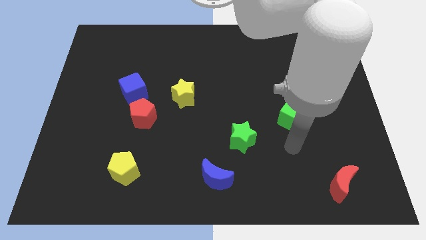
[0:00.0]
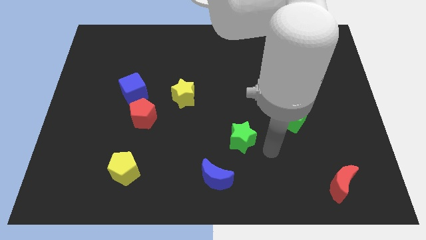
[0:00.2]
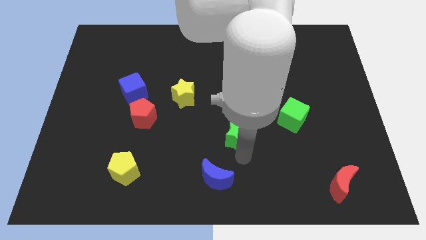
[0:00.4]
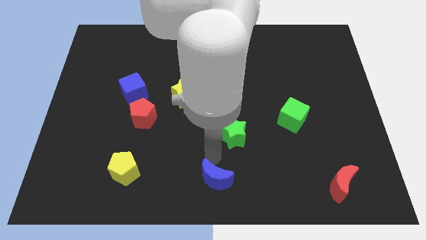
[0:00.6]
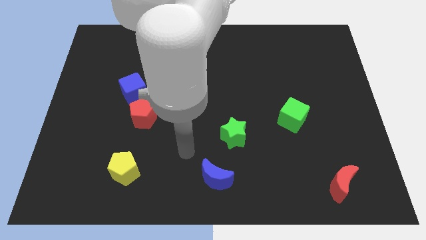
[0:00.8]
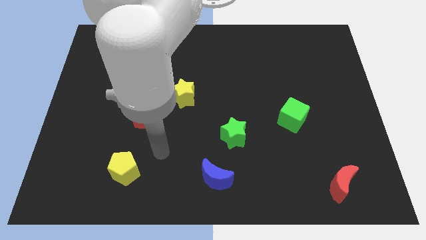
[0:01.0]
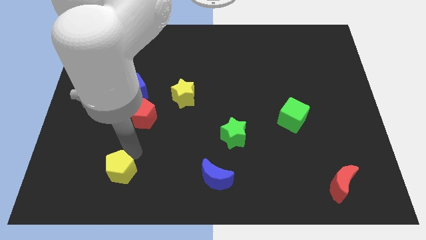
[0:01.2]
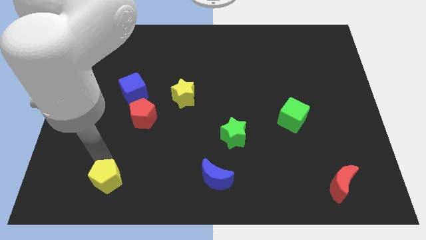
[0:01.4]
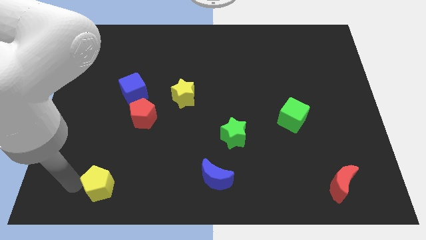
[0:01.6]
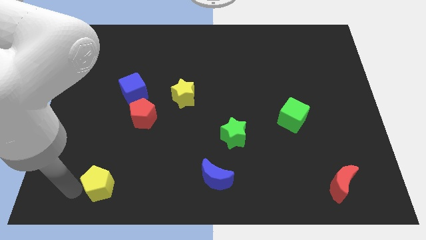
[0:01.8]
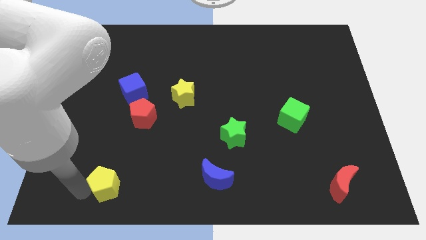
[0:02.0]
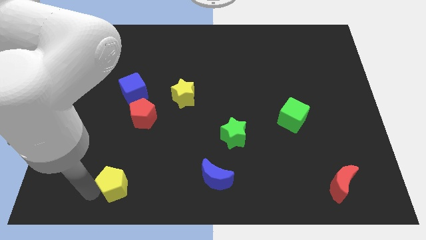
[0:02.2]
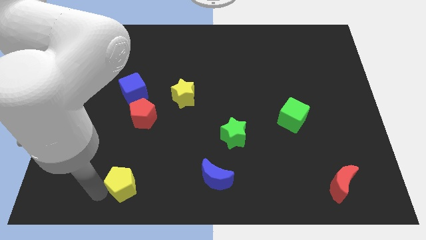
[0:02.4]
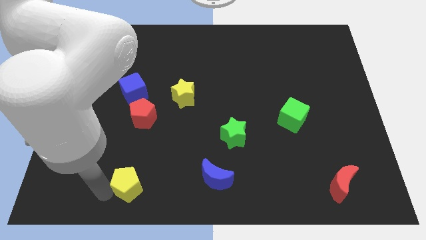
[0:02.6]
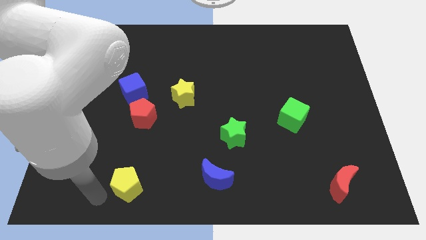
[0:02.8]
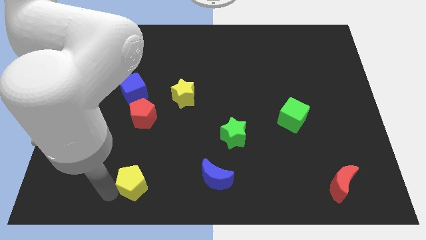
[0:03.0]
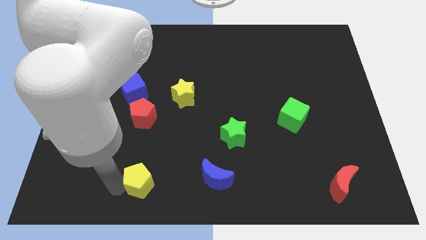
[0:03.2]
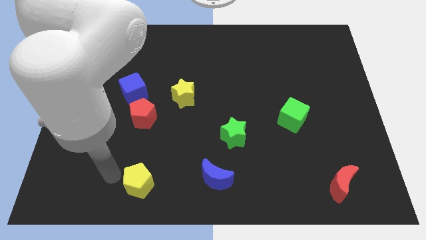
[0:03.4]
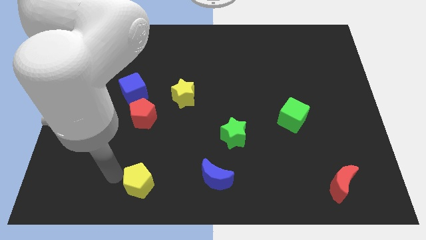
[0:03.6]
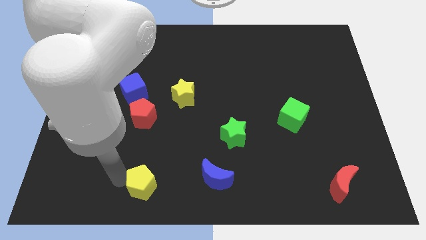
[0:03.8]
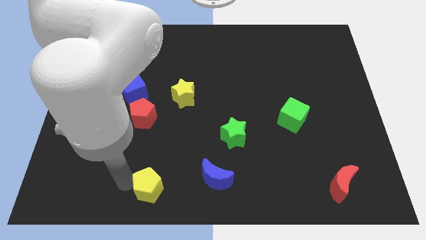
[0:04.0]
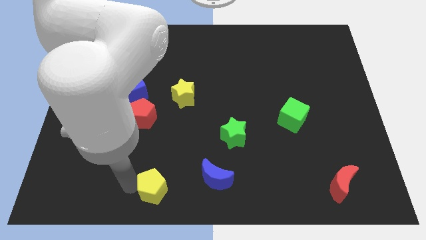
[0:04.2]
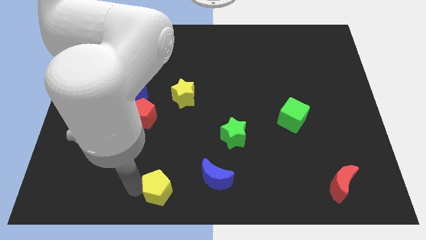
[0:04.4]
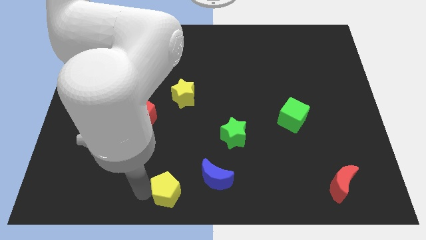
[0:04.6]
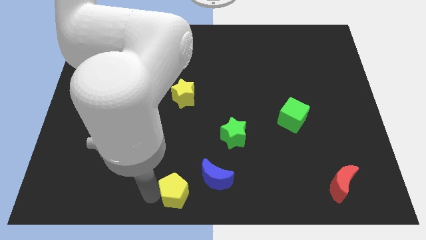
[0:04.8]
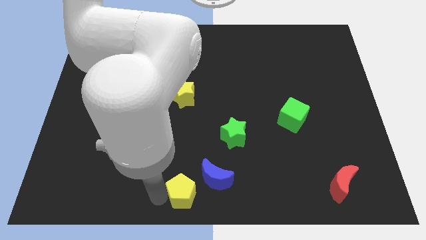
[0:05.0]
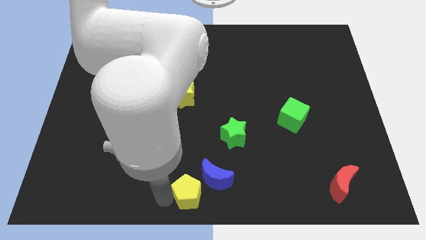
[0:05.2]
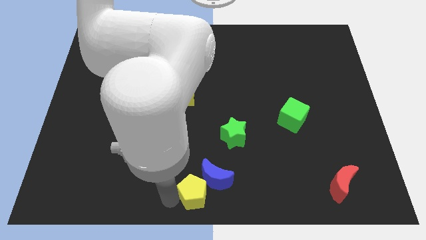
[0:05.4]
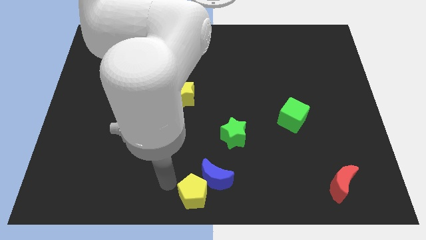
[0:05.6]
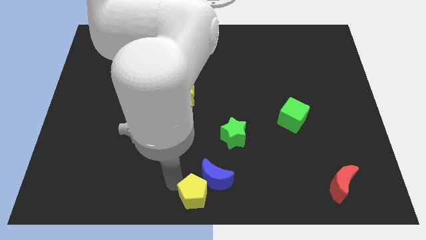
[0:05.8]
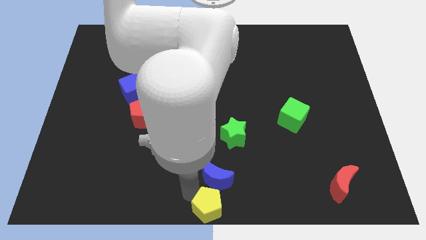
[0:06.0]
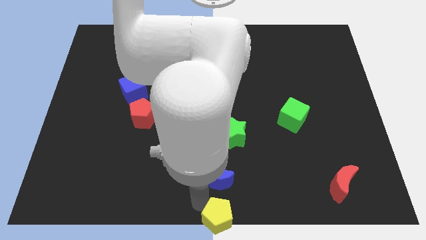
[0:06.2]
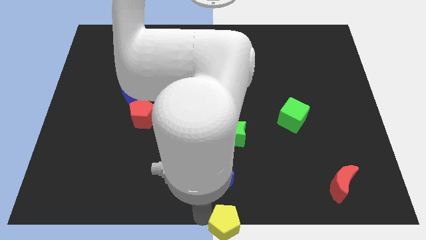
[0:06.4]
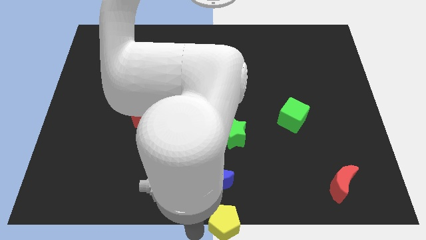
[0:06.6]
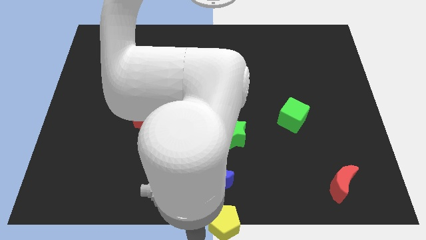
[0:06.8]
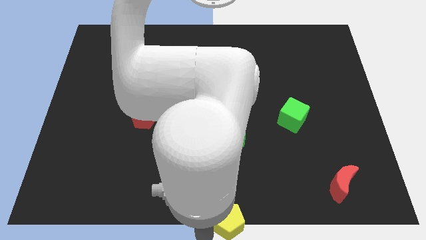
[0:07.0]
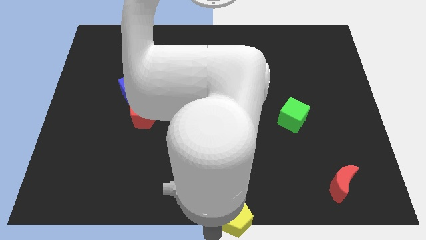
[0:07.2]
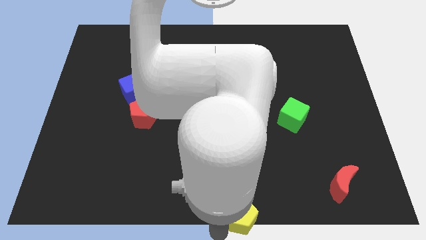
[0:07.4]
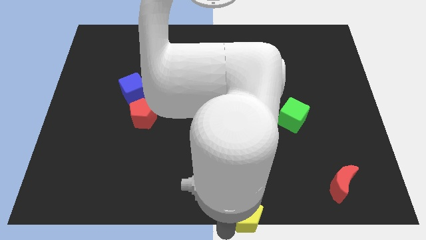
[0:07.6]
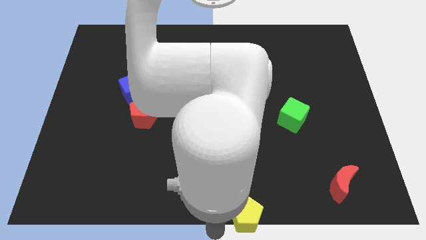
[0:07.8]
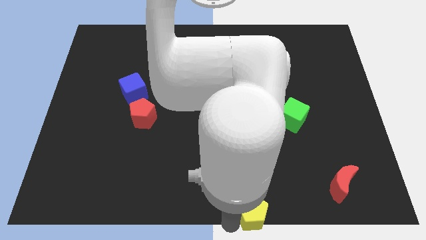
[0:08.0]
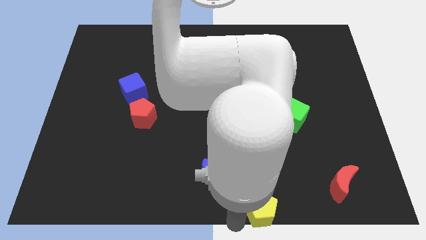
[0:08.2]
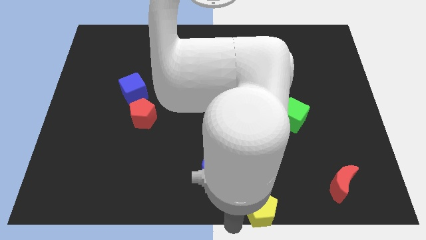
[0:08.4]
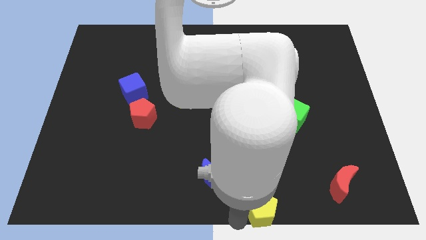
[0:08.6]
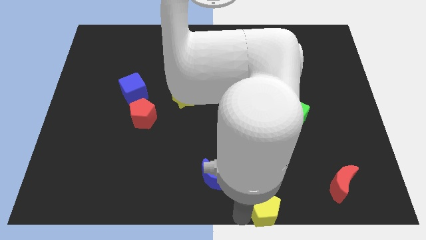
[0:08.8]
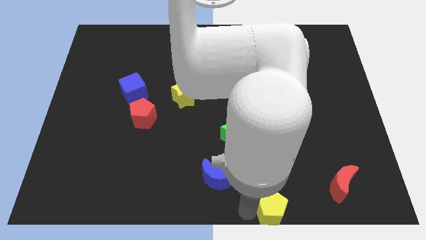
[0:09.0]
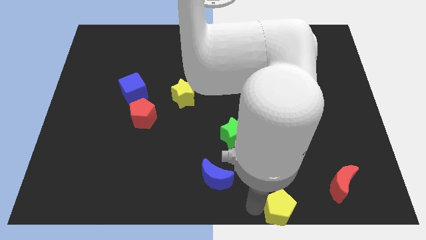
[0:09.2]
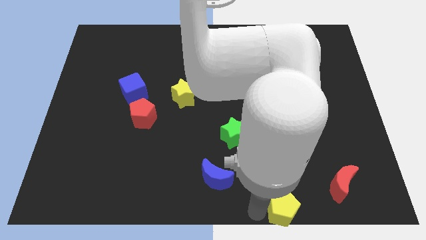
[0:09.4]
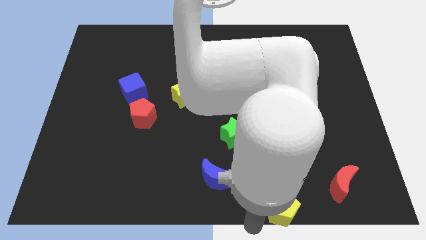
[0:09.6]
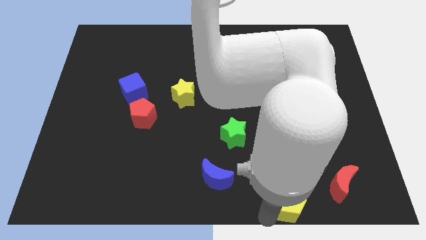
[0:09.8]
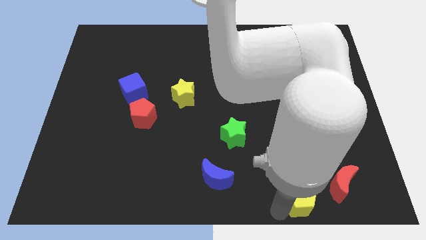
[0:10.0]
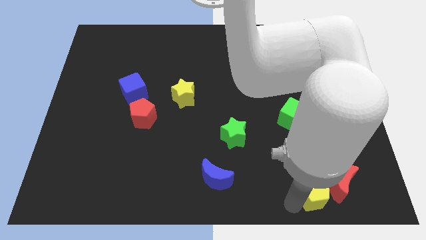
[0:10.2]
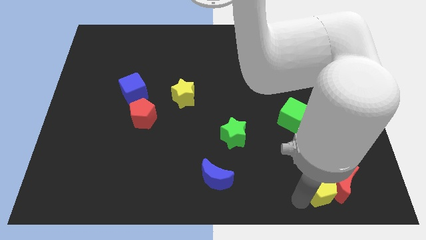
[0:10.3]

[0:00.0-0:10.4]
push the yellow pentagon close to the red moon

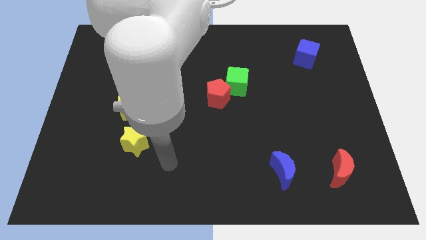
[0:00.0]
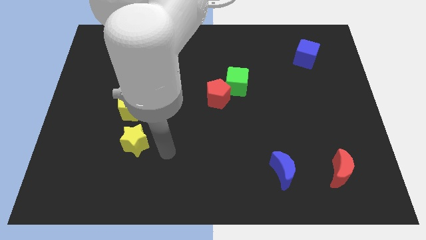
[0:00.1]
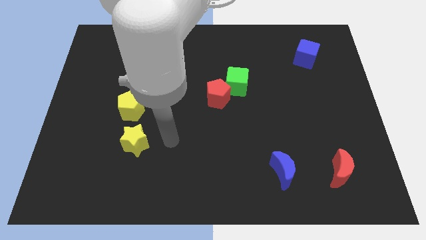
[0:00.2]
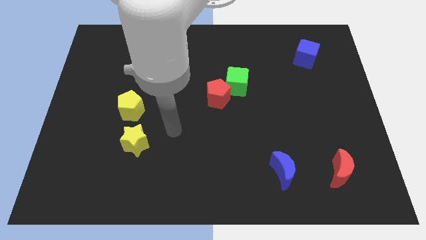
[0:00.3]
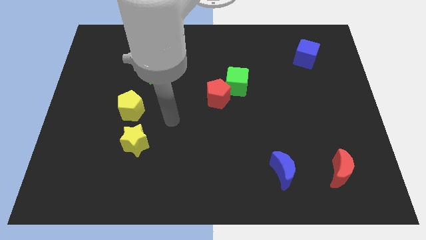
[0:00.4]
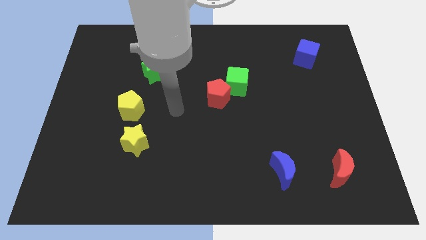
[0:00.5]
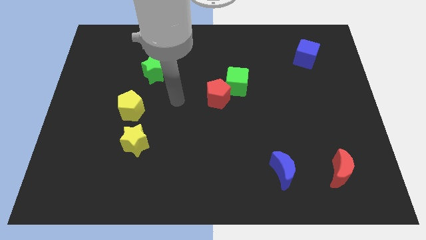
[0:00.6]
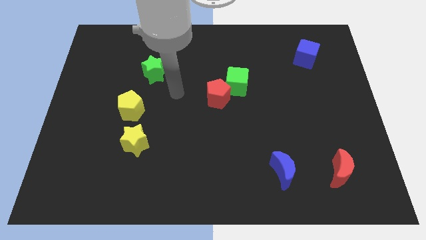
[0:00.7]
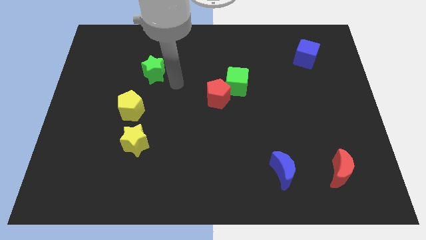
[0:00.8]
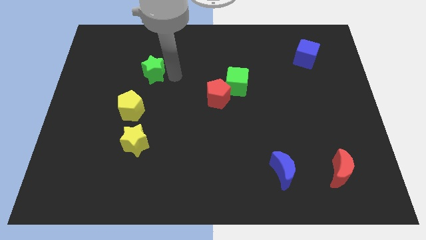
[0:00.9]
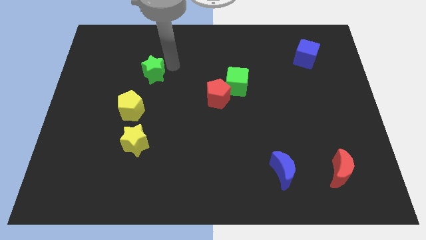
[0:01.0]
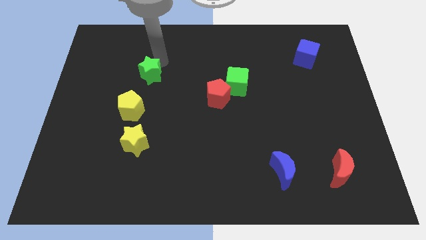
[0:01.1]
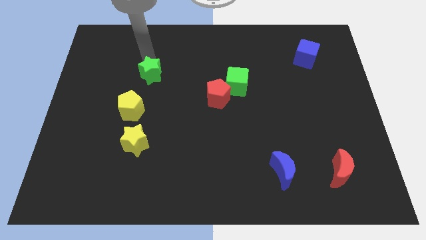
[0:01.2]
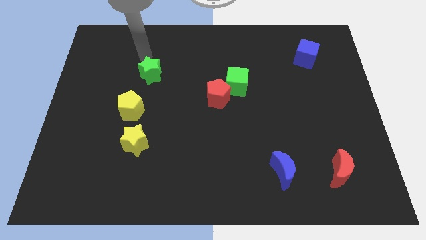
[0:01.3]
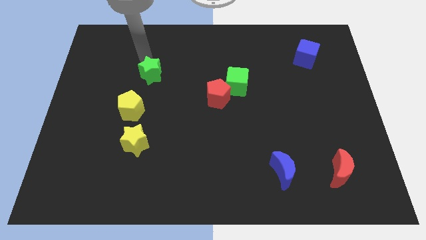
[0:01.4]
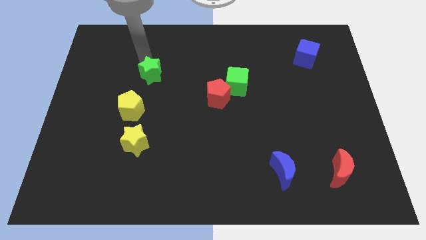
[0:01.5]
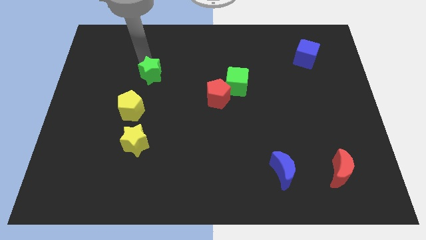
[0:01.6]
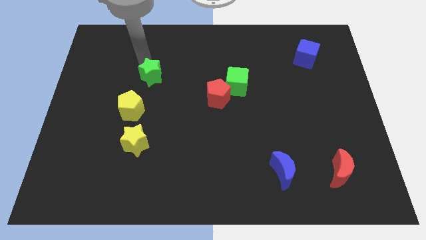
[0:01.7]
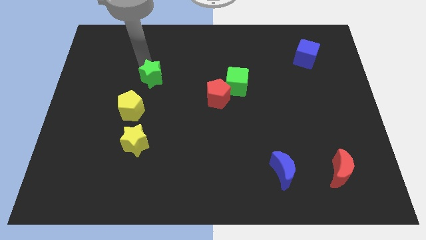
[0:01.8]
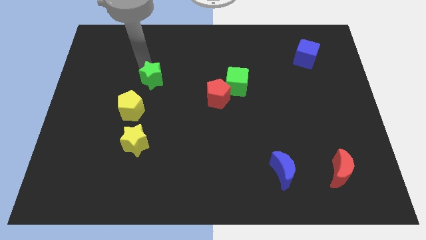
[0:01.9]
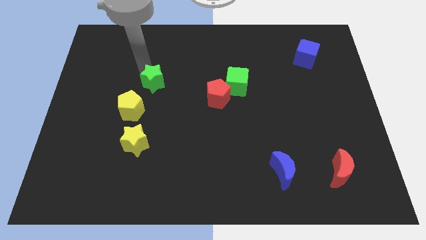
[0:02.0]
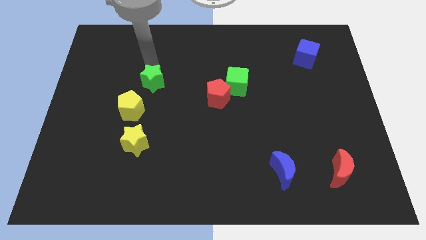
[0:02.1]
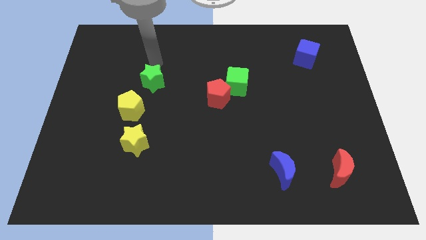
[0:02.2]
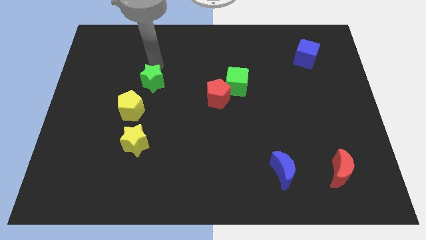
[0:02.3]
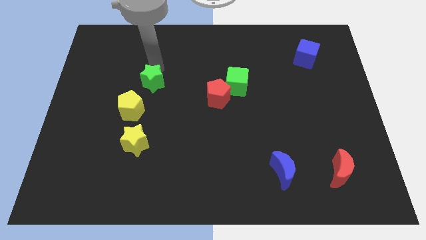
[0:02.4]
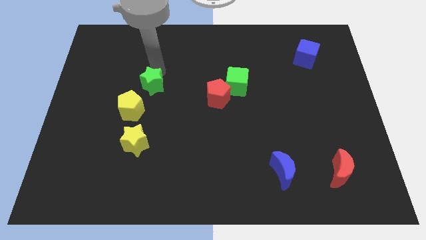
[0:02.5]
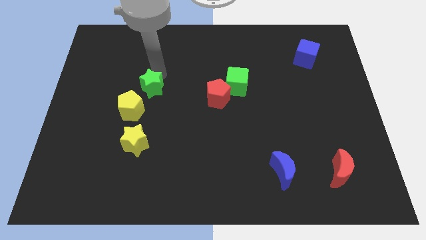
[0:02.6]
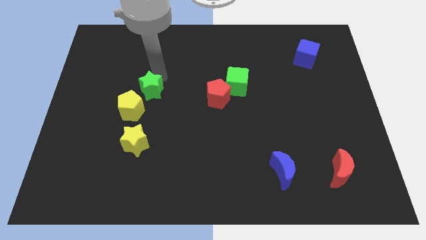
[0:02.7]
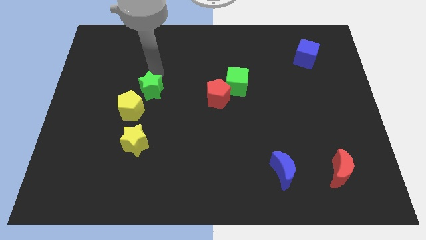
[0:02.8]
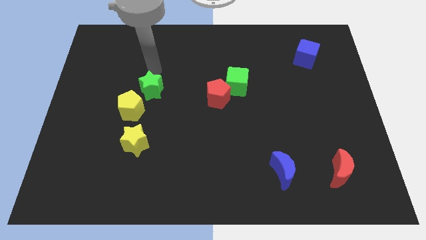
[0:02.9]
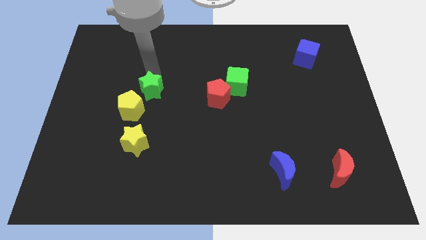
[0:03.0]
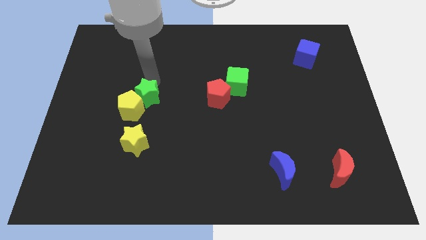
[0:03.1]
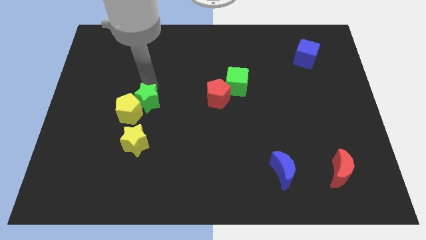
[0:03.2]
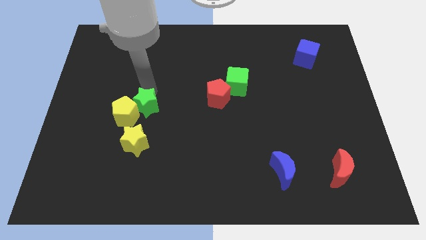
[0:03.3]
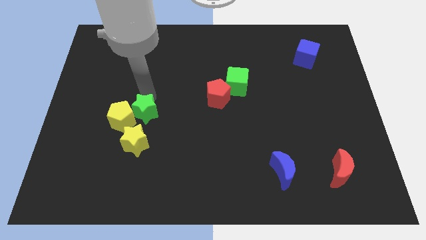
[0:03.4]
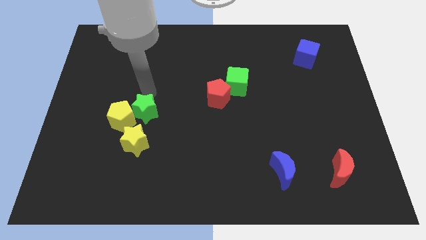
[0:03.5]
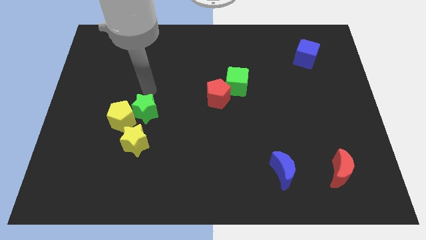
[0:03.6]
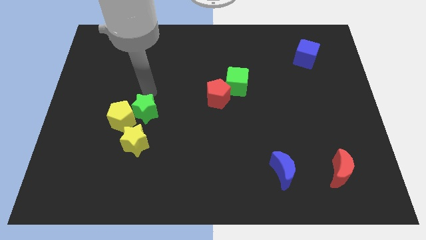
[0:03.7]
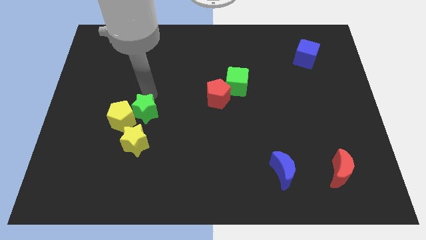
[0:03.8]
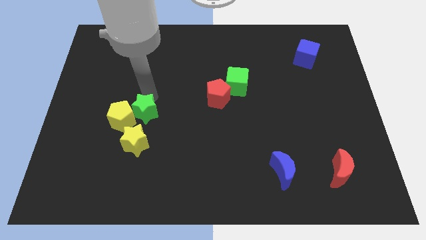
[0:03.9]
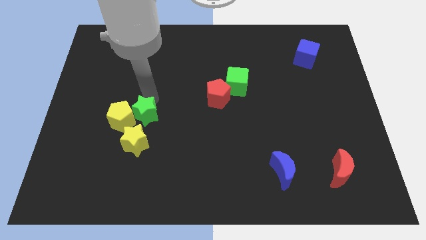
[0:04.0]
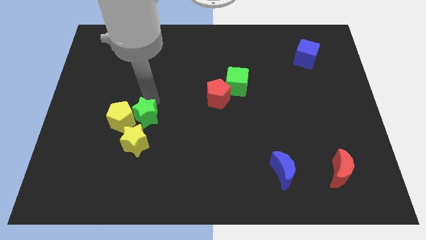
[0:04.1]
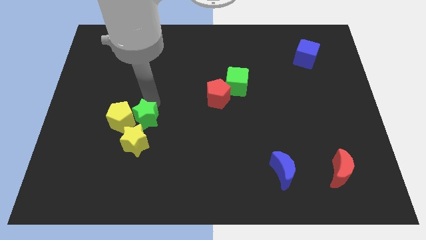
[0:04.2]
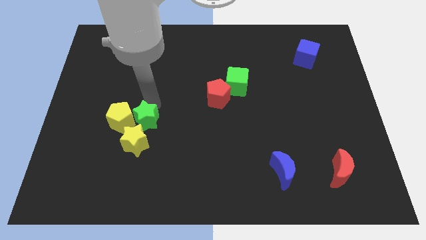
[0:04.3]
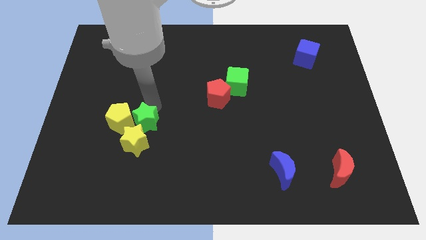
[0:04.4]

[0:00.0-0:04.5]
push the green star close to the yellow star
